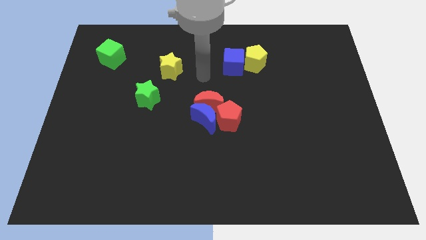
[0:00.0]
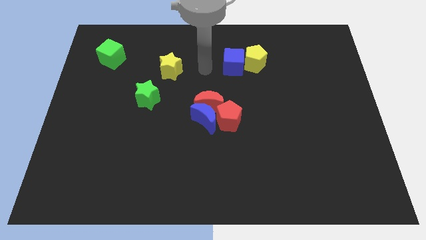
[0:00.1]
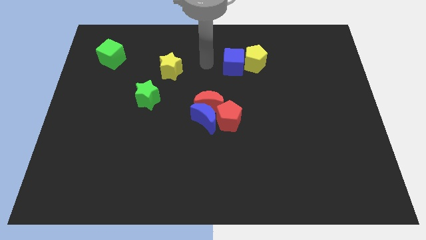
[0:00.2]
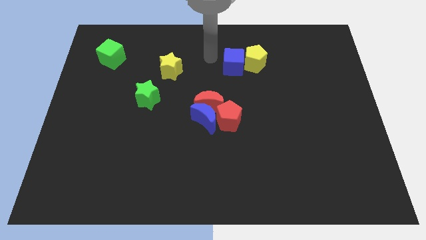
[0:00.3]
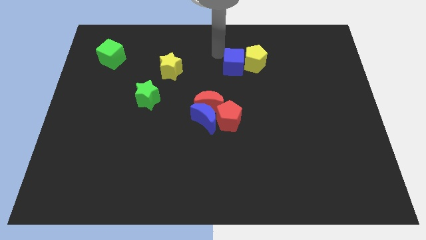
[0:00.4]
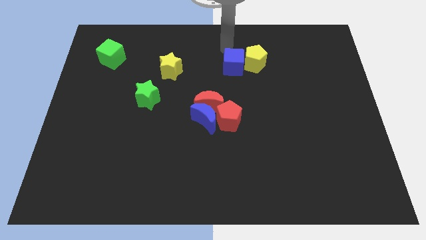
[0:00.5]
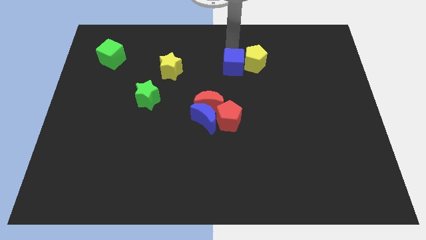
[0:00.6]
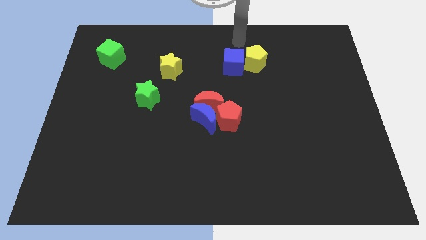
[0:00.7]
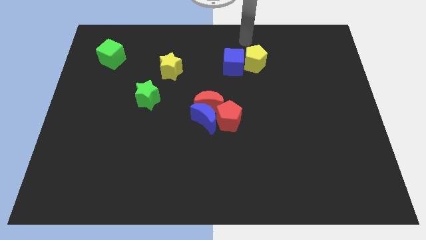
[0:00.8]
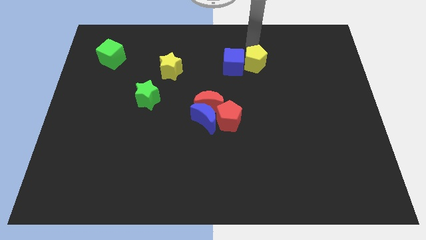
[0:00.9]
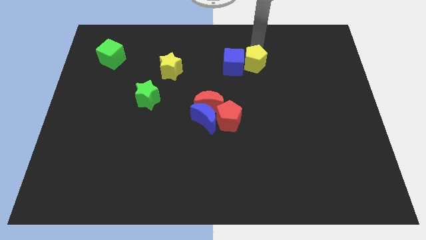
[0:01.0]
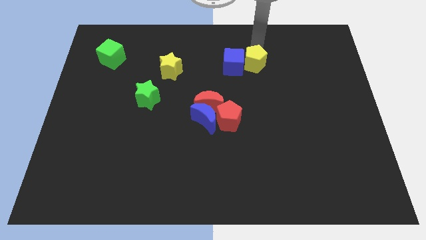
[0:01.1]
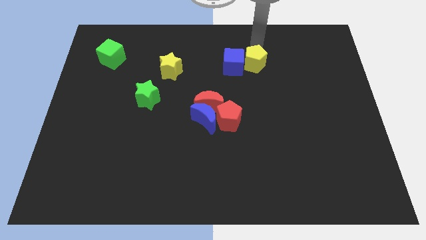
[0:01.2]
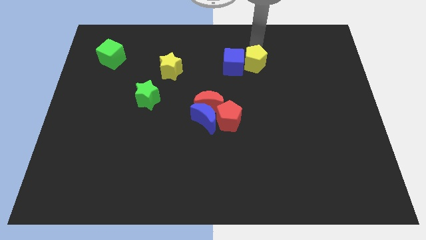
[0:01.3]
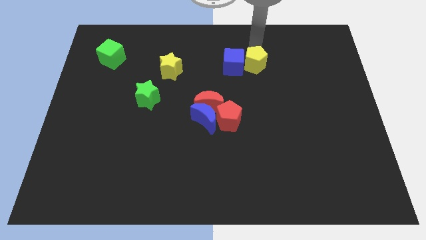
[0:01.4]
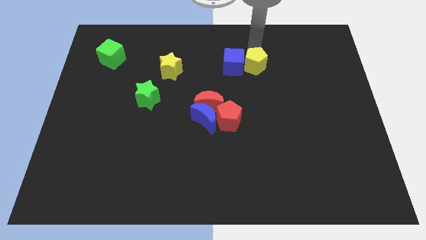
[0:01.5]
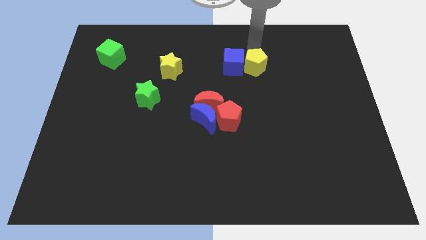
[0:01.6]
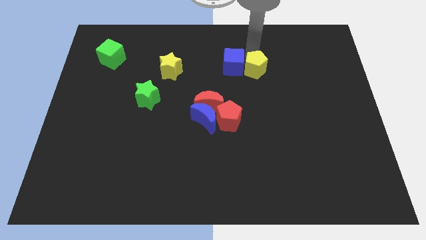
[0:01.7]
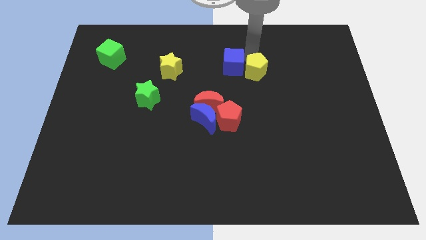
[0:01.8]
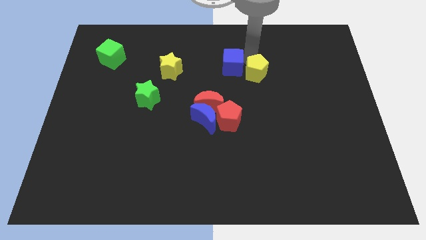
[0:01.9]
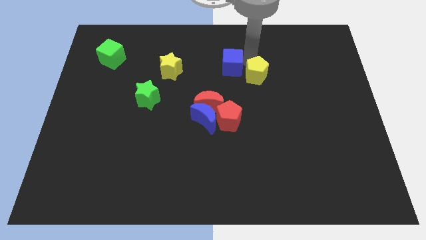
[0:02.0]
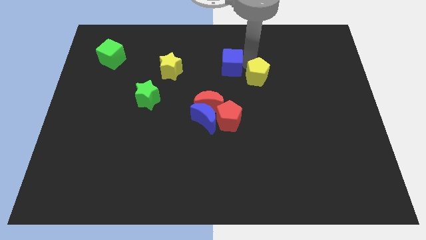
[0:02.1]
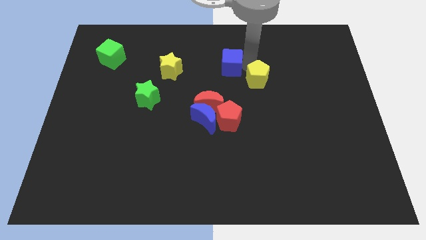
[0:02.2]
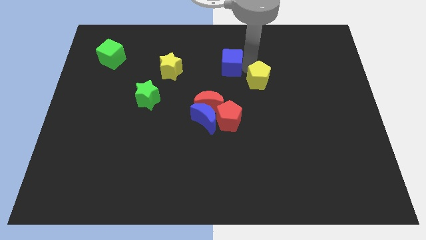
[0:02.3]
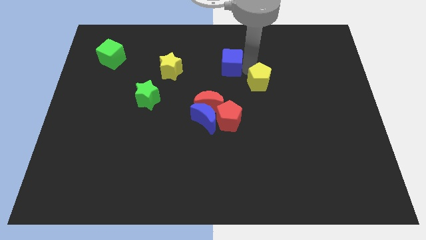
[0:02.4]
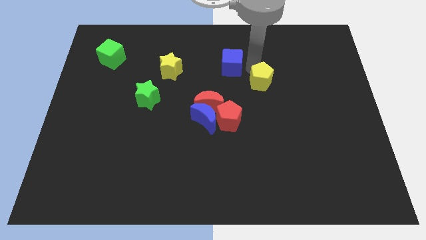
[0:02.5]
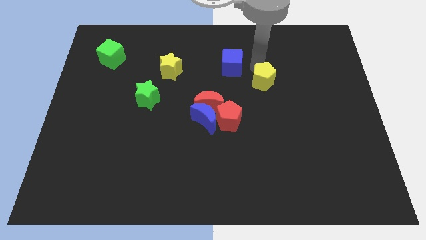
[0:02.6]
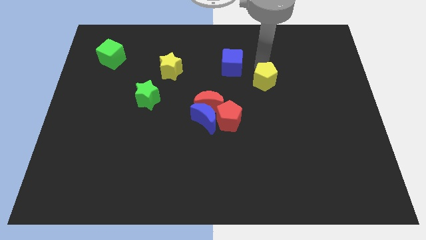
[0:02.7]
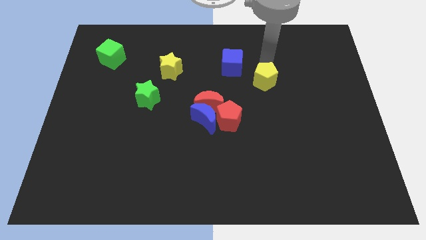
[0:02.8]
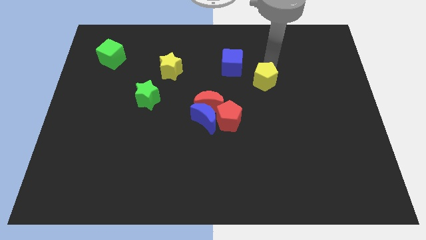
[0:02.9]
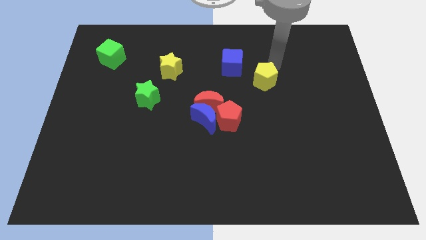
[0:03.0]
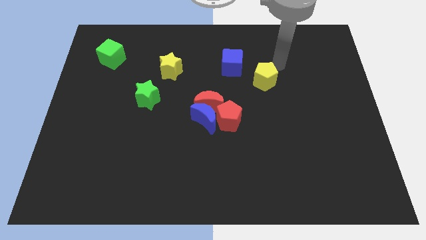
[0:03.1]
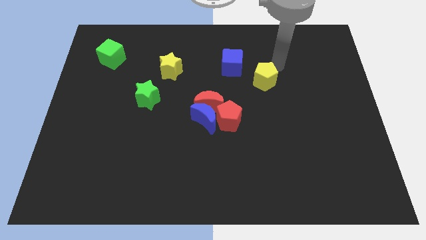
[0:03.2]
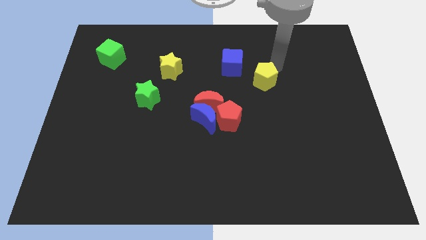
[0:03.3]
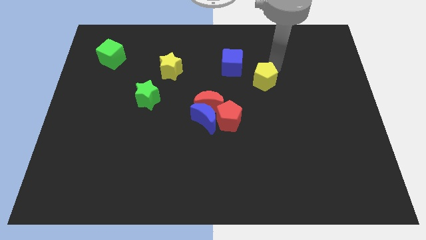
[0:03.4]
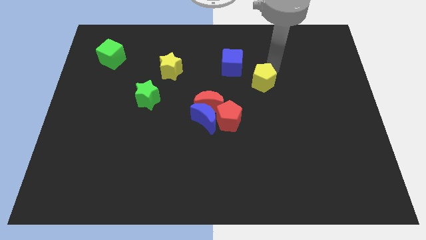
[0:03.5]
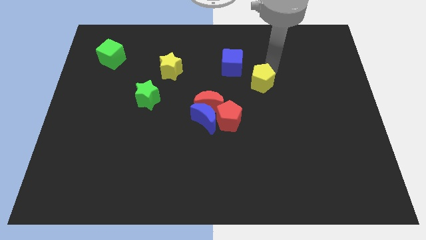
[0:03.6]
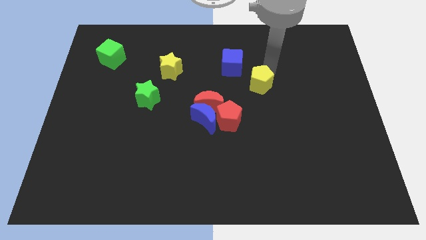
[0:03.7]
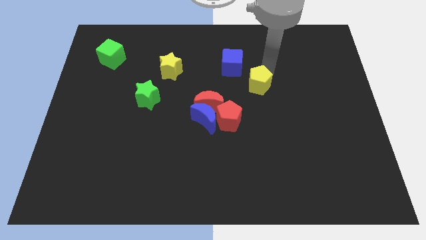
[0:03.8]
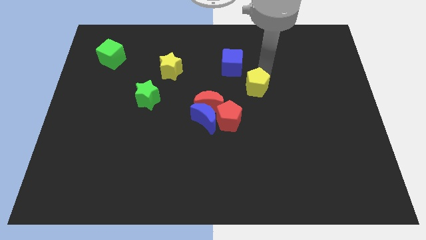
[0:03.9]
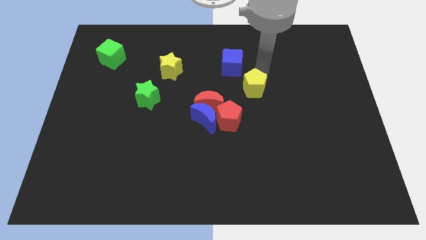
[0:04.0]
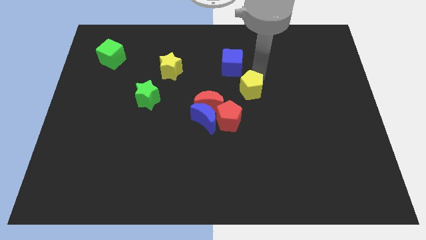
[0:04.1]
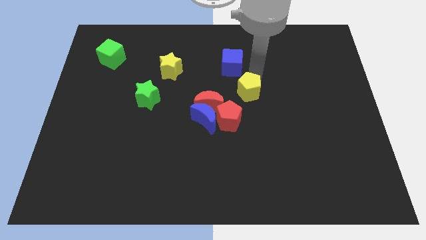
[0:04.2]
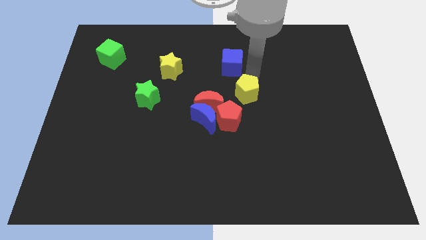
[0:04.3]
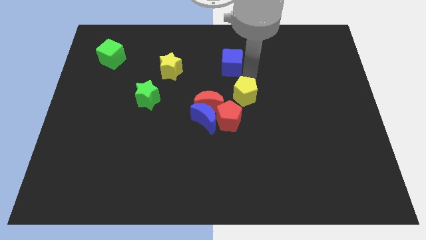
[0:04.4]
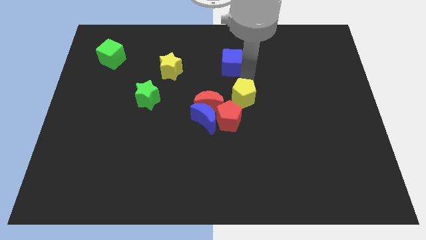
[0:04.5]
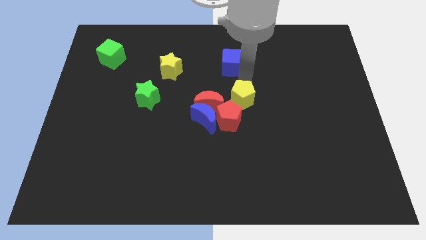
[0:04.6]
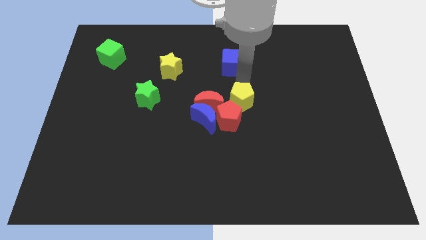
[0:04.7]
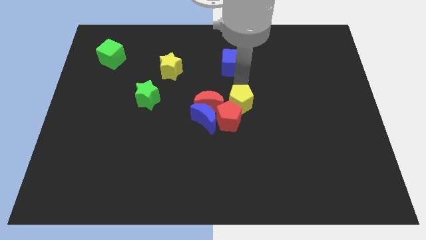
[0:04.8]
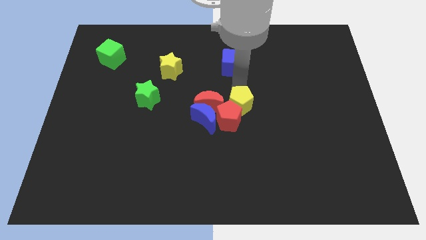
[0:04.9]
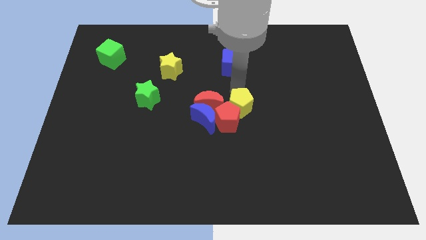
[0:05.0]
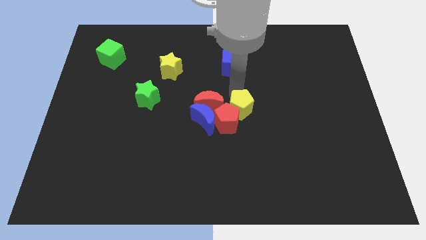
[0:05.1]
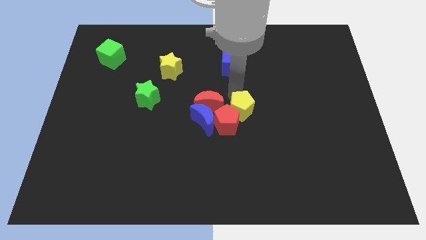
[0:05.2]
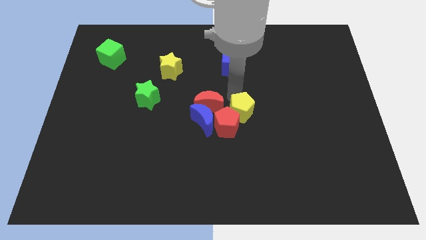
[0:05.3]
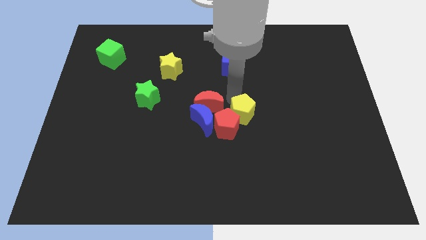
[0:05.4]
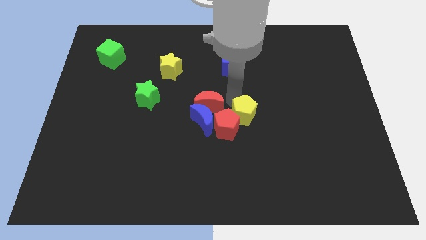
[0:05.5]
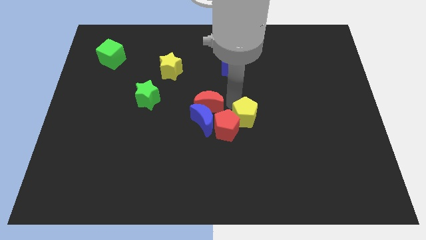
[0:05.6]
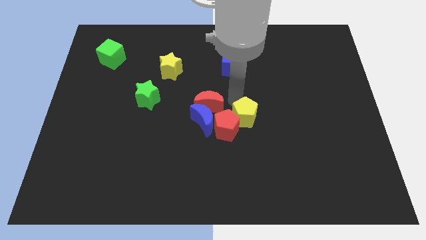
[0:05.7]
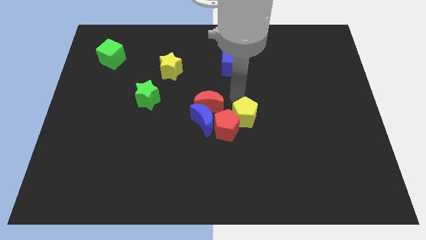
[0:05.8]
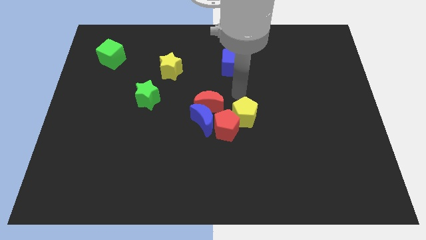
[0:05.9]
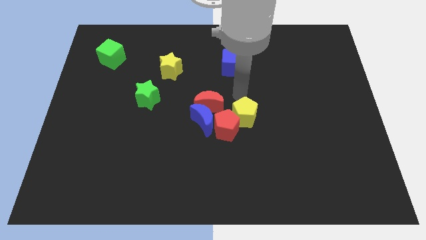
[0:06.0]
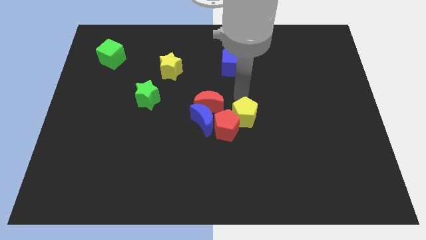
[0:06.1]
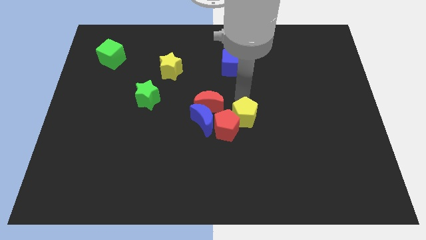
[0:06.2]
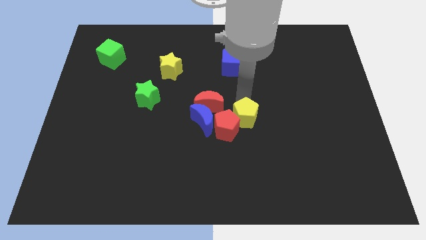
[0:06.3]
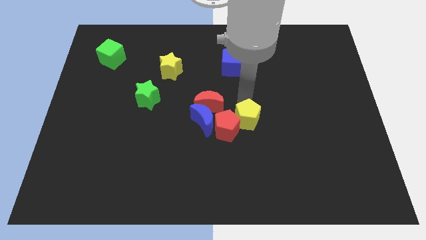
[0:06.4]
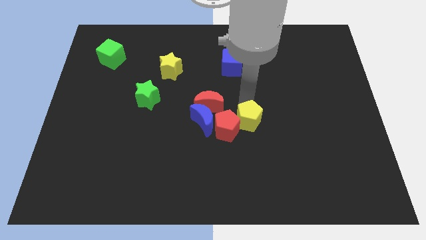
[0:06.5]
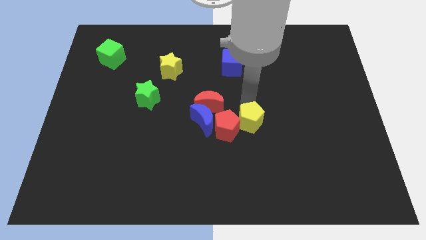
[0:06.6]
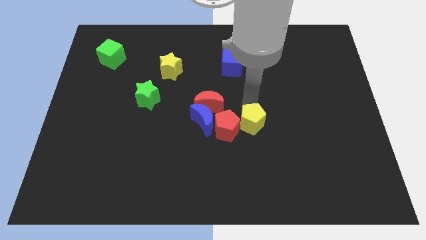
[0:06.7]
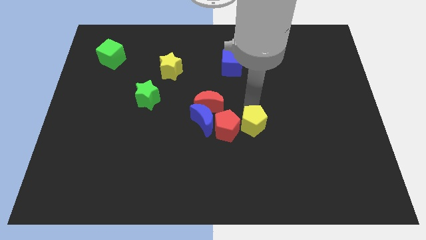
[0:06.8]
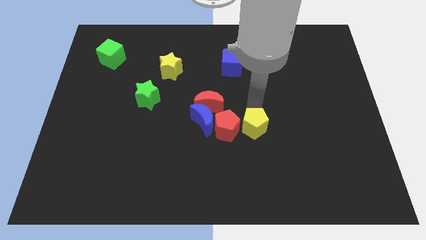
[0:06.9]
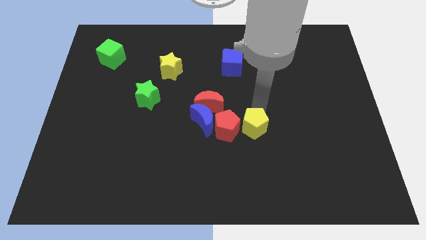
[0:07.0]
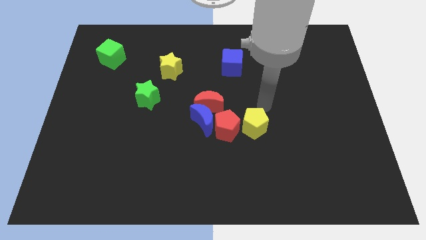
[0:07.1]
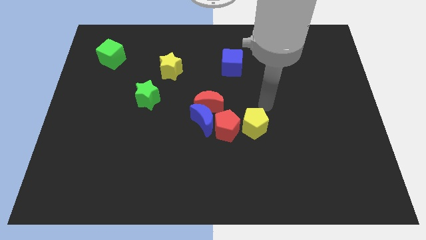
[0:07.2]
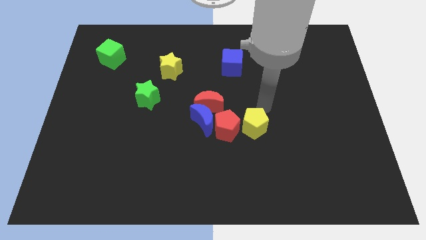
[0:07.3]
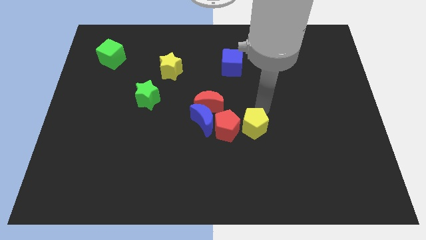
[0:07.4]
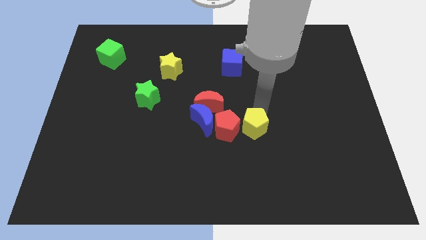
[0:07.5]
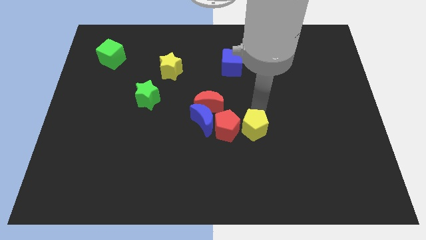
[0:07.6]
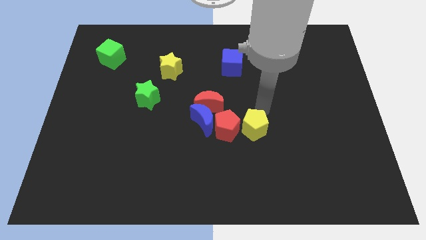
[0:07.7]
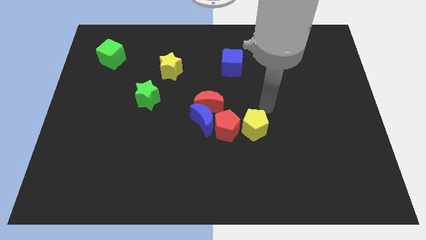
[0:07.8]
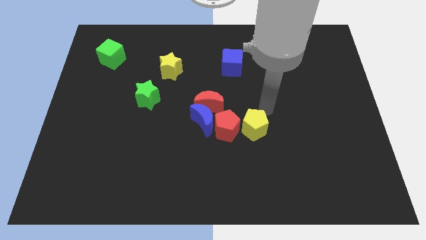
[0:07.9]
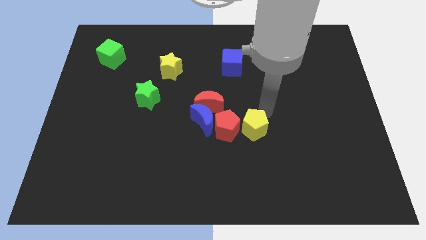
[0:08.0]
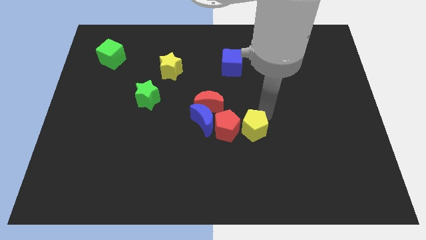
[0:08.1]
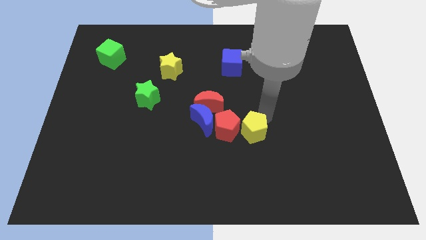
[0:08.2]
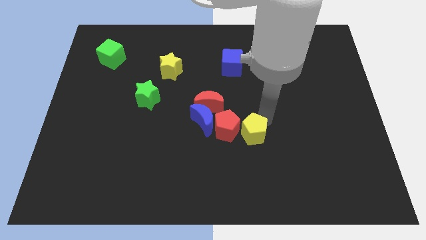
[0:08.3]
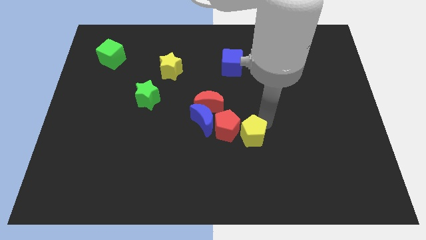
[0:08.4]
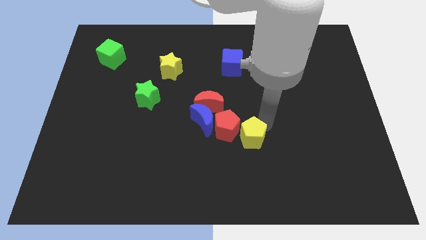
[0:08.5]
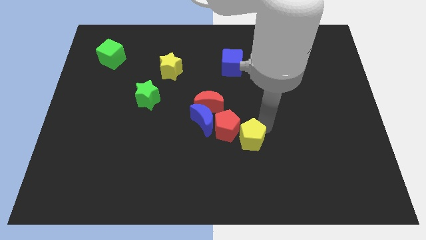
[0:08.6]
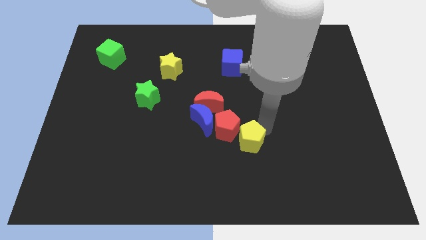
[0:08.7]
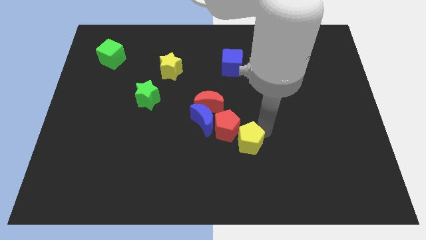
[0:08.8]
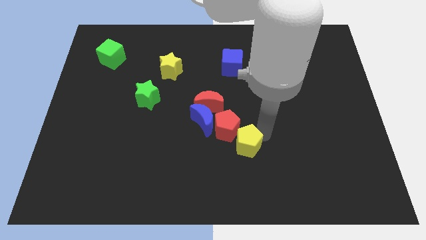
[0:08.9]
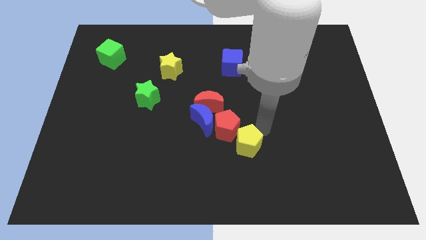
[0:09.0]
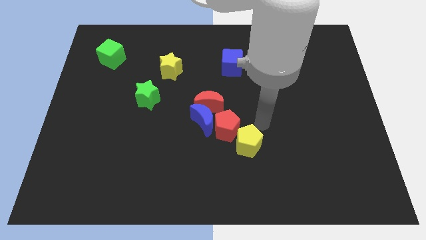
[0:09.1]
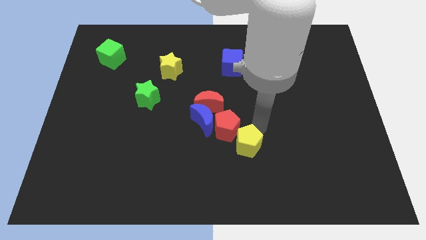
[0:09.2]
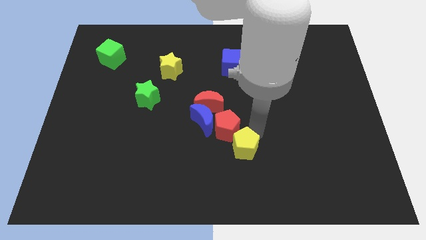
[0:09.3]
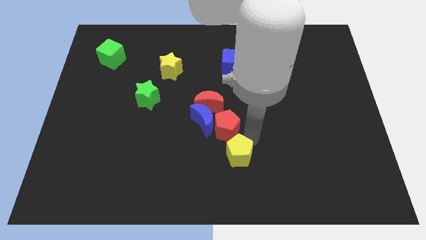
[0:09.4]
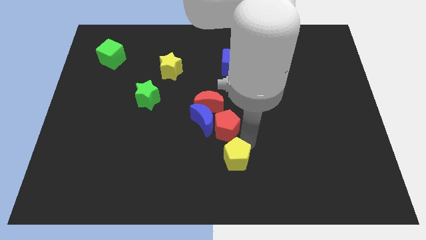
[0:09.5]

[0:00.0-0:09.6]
move the yellow pentagon to the bottom side
